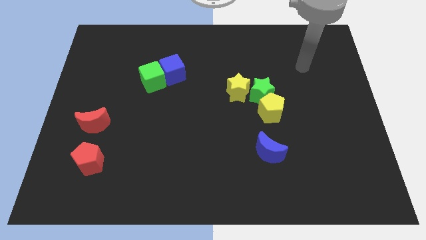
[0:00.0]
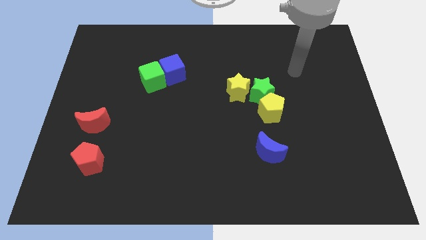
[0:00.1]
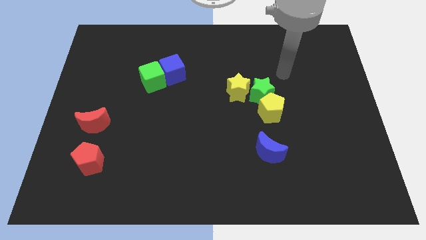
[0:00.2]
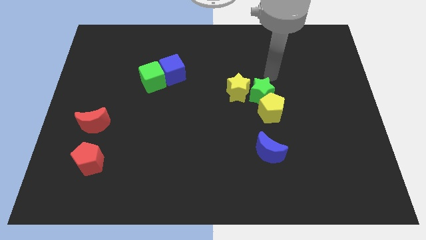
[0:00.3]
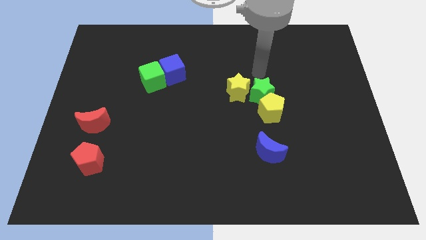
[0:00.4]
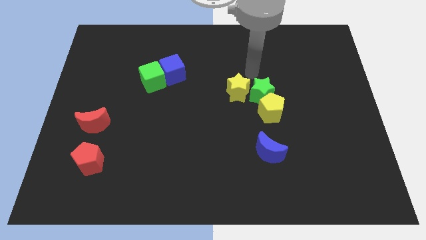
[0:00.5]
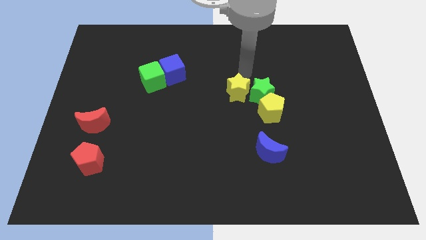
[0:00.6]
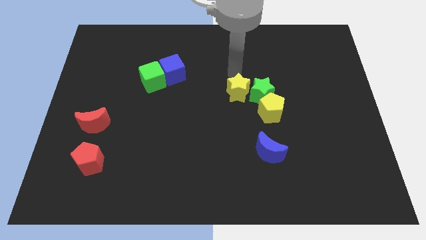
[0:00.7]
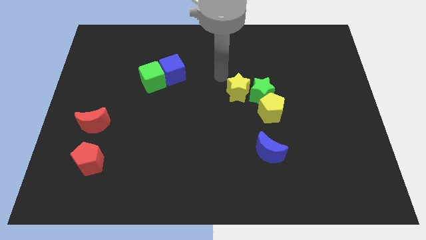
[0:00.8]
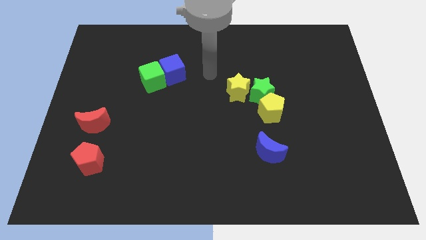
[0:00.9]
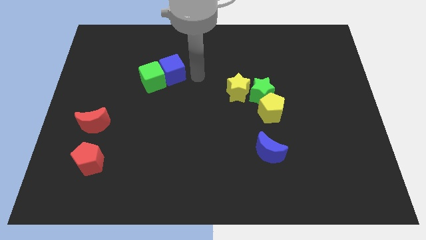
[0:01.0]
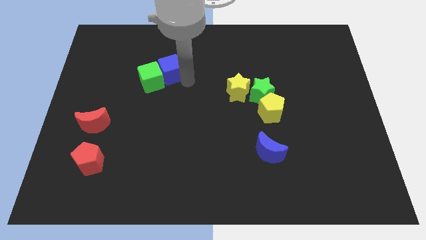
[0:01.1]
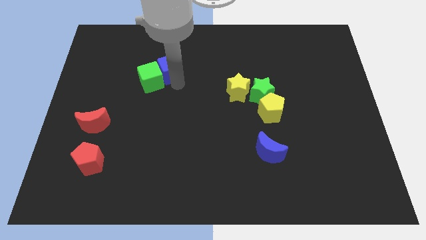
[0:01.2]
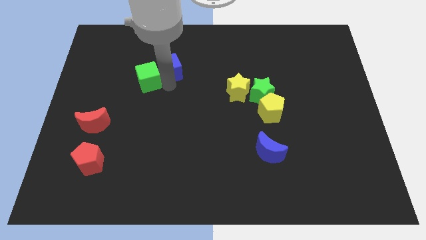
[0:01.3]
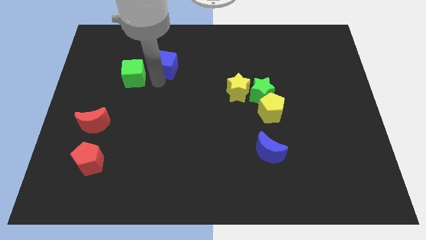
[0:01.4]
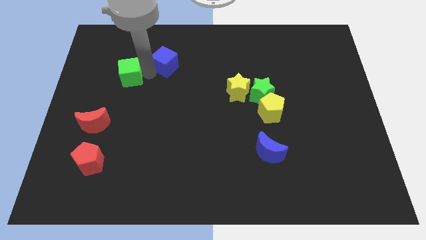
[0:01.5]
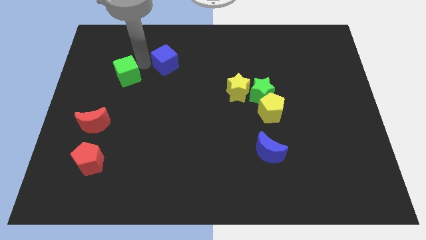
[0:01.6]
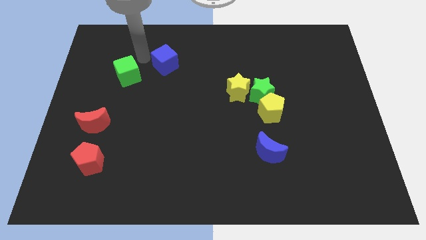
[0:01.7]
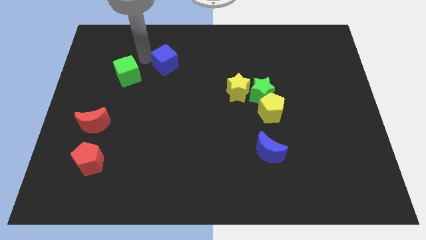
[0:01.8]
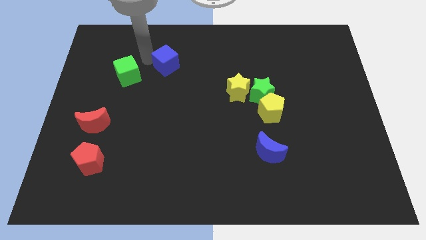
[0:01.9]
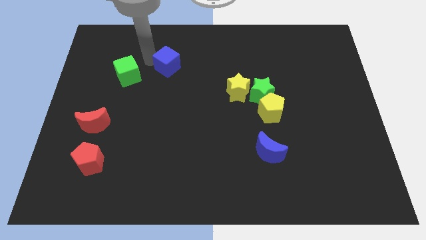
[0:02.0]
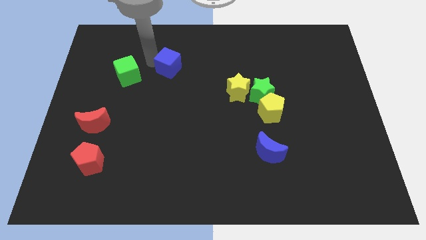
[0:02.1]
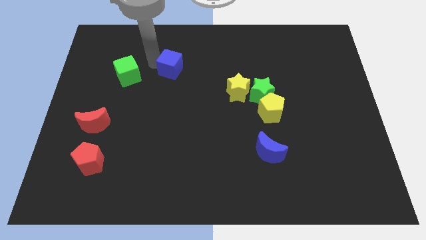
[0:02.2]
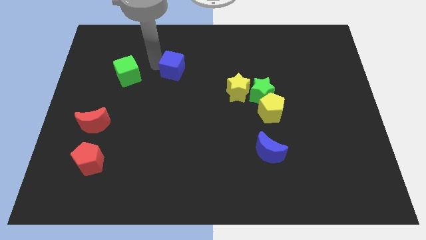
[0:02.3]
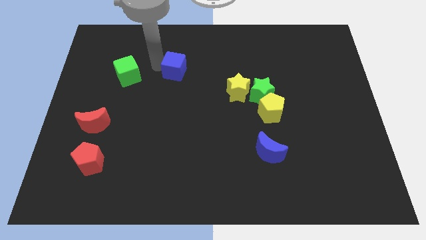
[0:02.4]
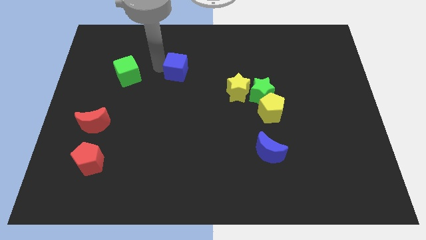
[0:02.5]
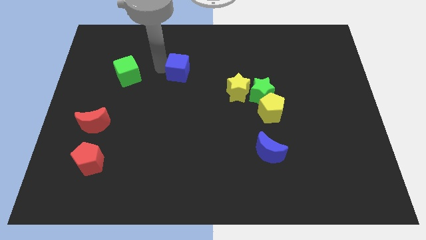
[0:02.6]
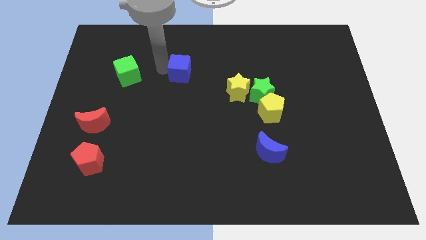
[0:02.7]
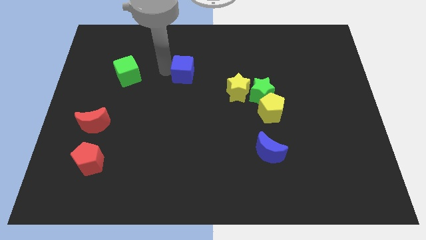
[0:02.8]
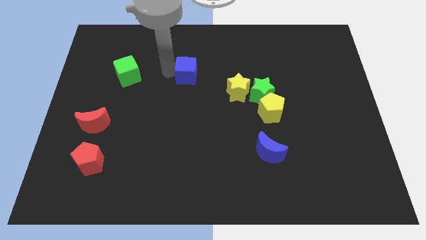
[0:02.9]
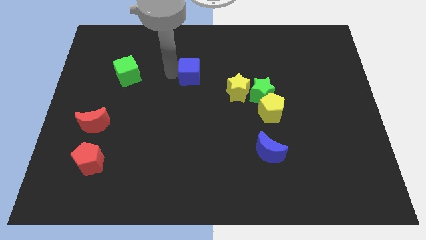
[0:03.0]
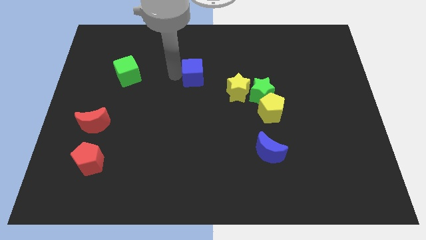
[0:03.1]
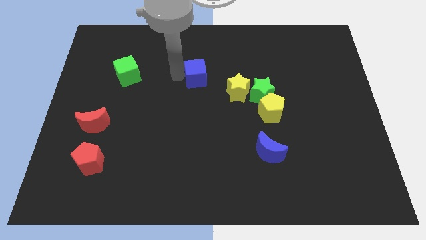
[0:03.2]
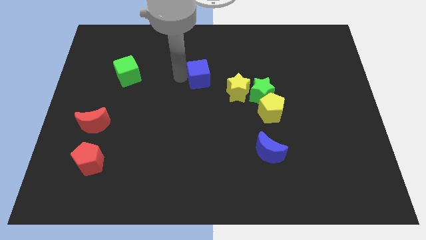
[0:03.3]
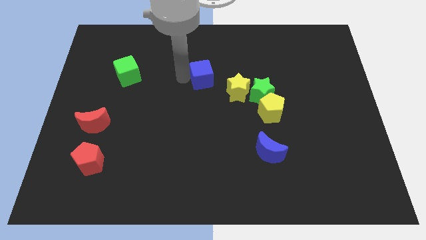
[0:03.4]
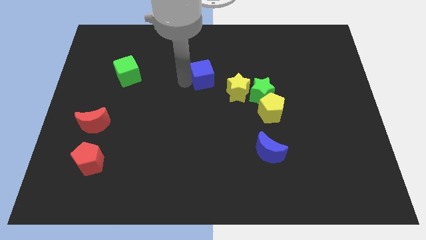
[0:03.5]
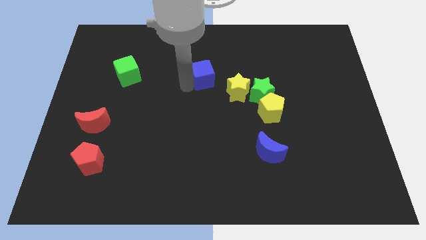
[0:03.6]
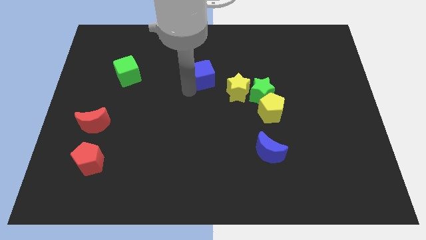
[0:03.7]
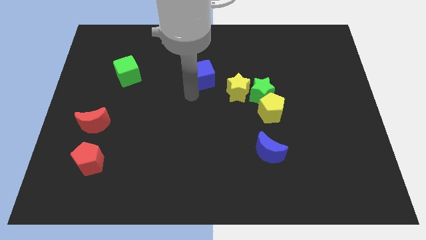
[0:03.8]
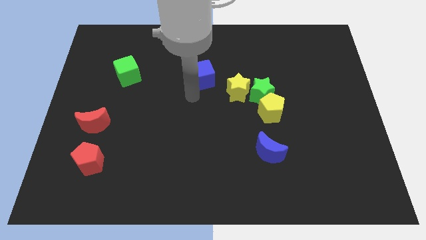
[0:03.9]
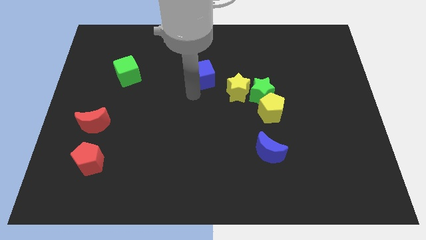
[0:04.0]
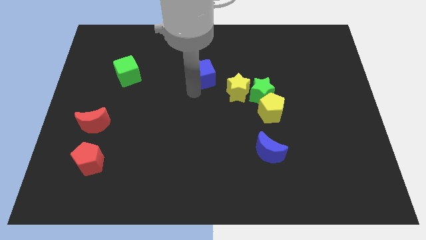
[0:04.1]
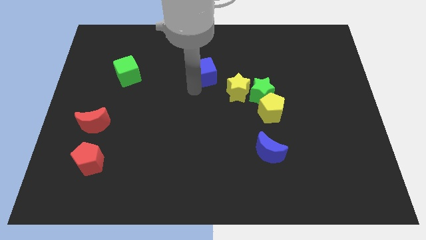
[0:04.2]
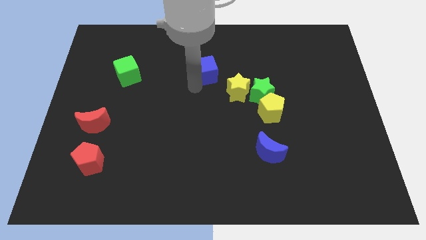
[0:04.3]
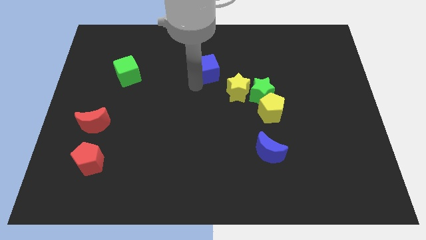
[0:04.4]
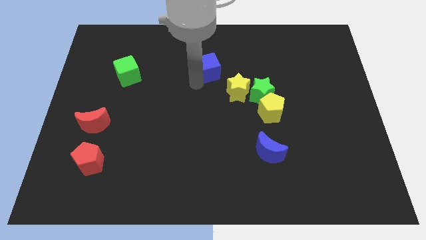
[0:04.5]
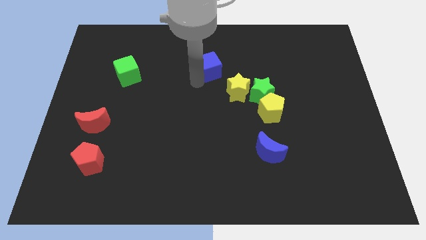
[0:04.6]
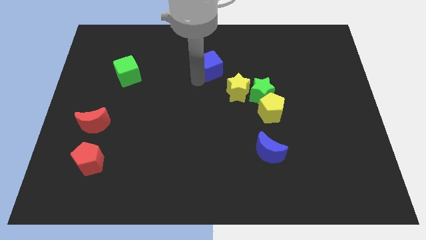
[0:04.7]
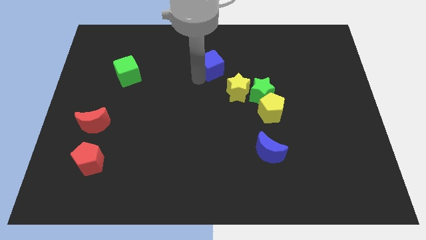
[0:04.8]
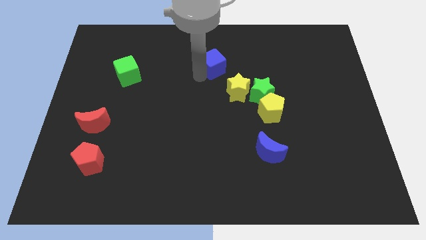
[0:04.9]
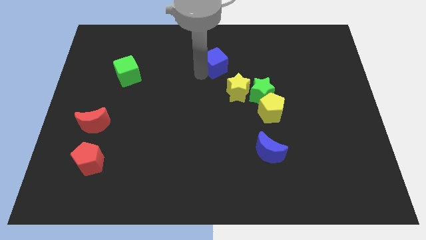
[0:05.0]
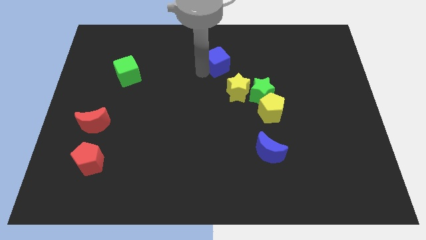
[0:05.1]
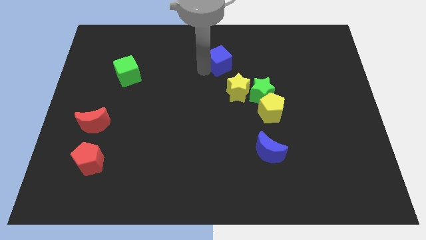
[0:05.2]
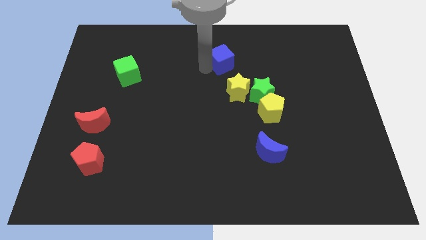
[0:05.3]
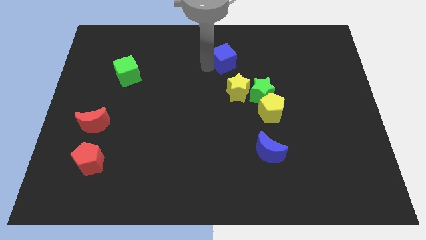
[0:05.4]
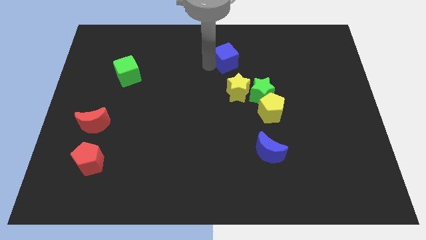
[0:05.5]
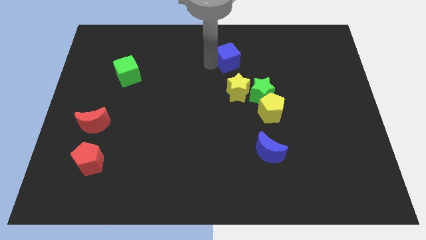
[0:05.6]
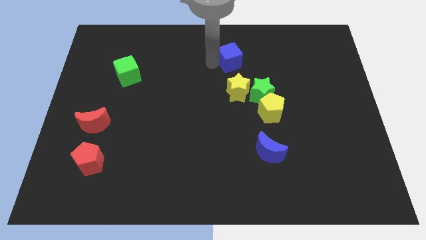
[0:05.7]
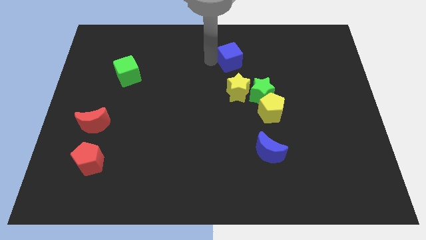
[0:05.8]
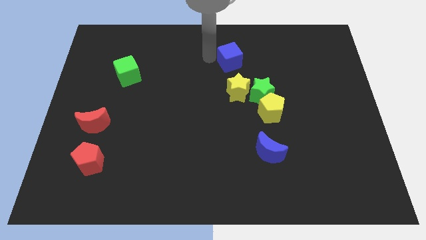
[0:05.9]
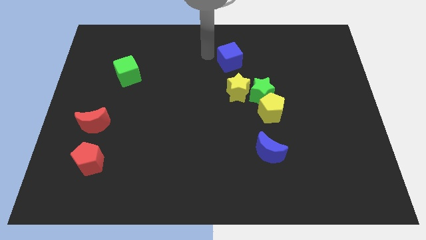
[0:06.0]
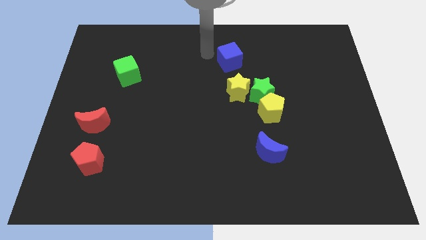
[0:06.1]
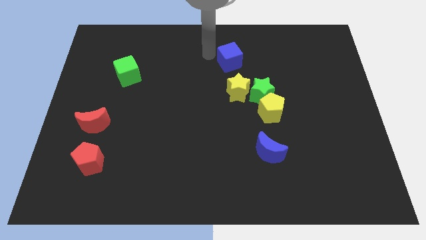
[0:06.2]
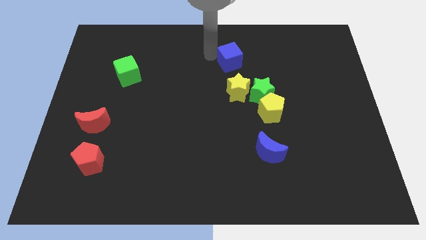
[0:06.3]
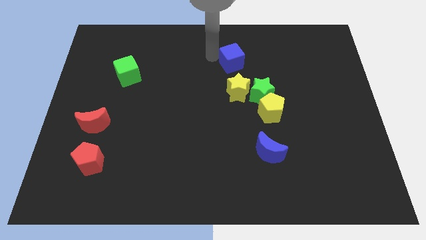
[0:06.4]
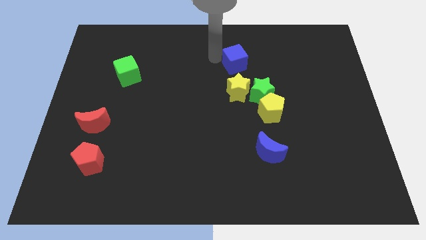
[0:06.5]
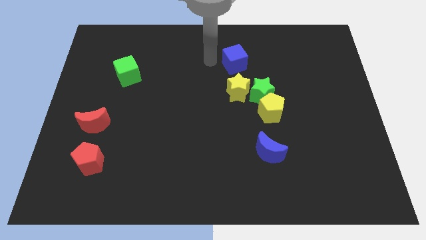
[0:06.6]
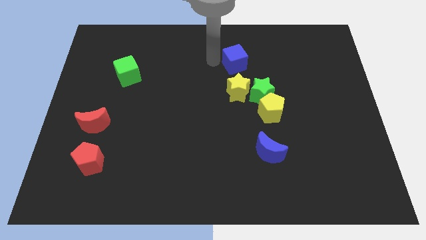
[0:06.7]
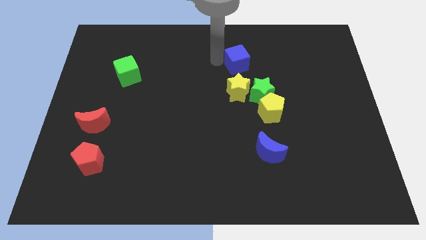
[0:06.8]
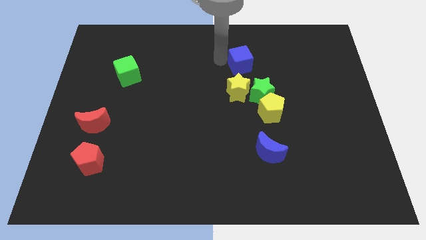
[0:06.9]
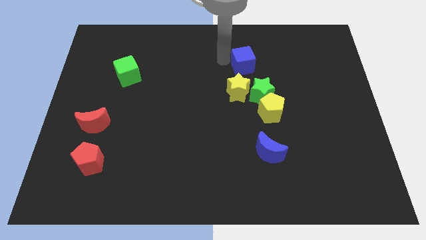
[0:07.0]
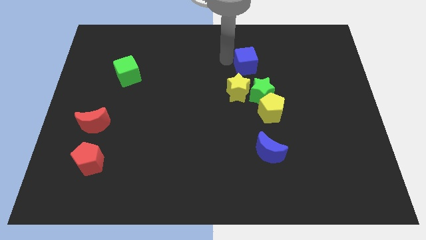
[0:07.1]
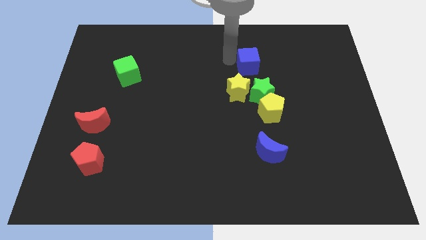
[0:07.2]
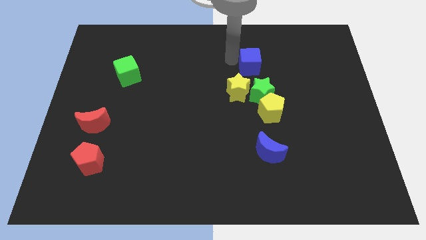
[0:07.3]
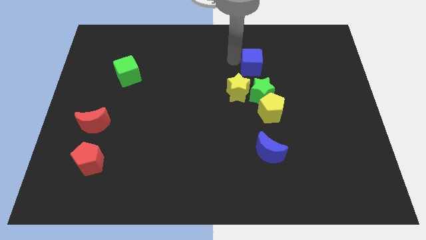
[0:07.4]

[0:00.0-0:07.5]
push the blue cube right
